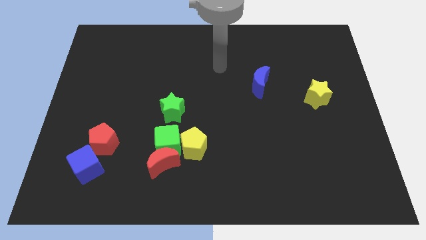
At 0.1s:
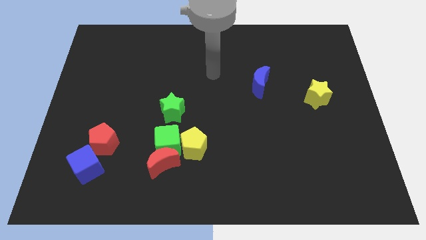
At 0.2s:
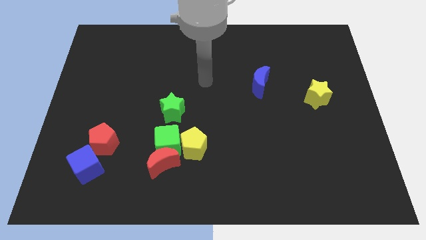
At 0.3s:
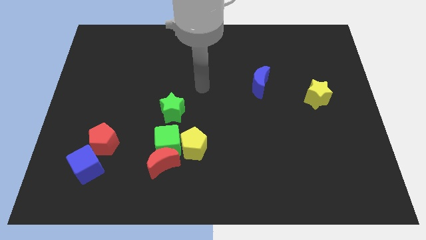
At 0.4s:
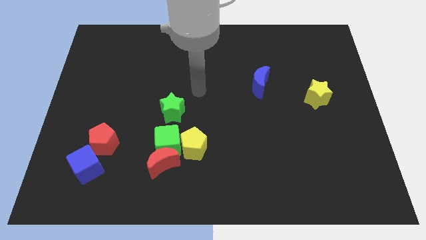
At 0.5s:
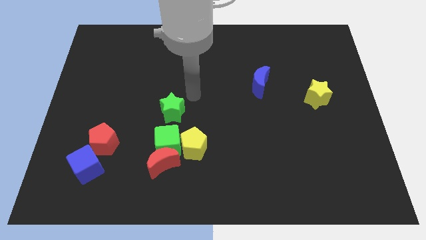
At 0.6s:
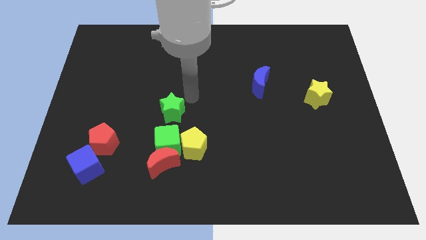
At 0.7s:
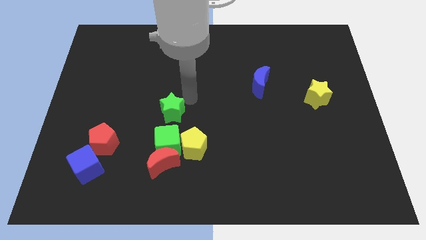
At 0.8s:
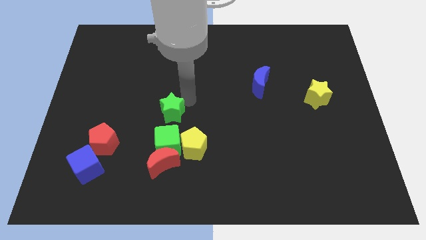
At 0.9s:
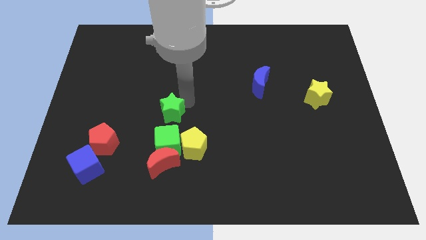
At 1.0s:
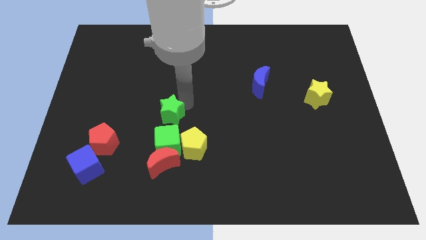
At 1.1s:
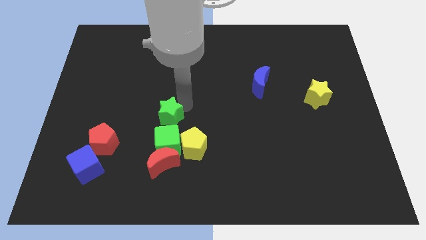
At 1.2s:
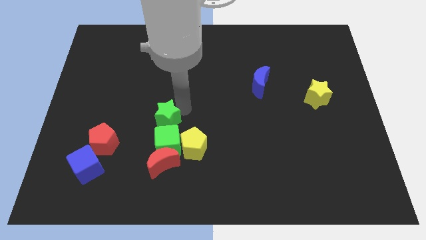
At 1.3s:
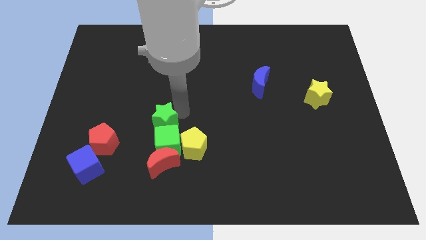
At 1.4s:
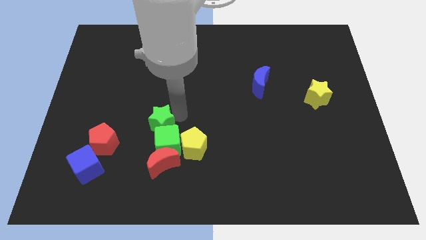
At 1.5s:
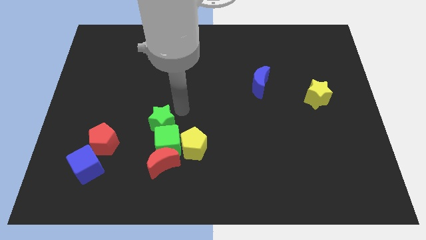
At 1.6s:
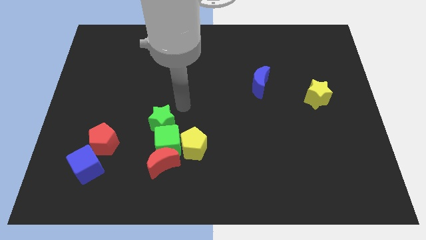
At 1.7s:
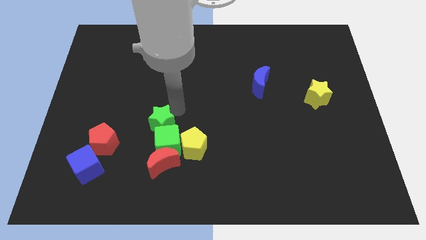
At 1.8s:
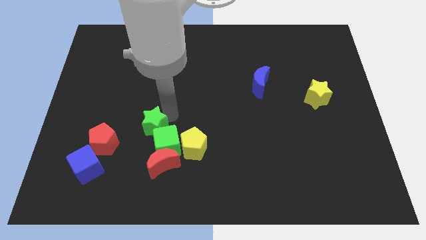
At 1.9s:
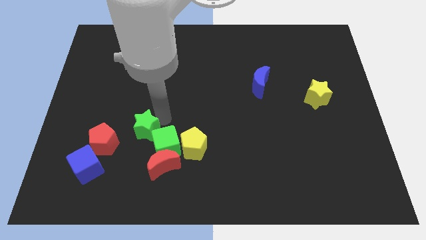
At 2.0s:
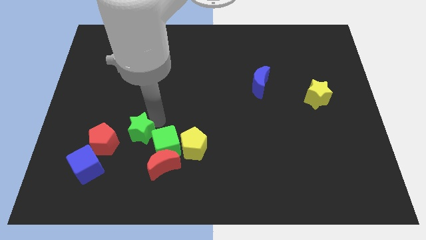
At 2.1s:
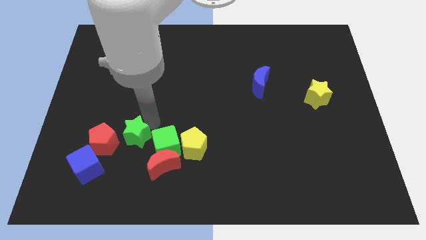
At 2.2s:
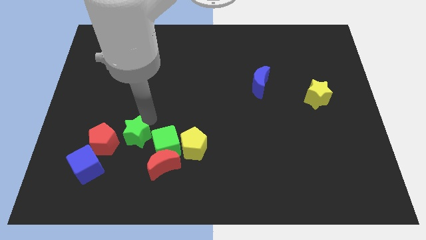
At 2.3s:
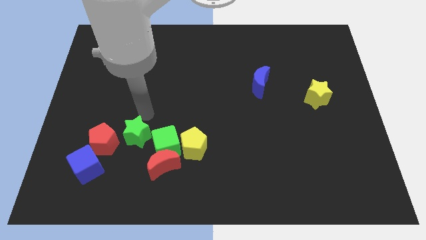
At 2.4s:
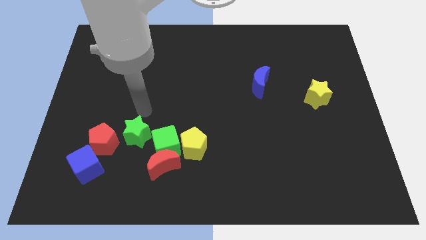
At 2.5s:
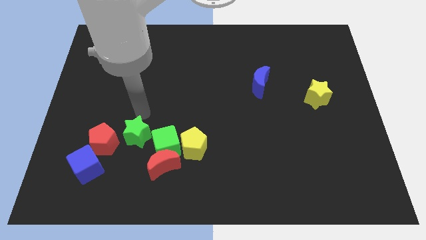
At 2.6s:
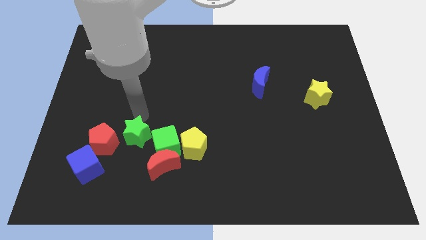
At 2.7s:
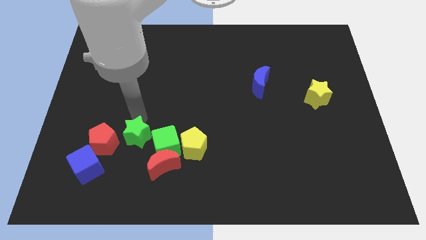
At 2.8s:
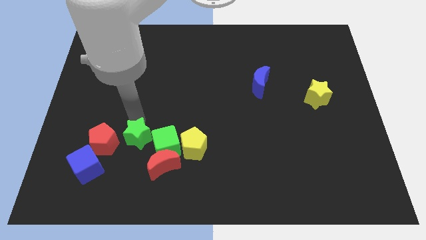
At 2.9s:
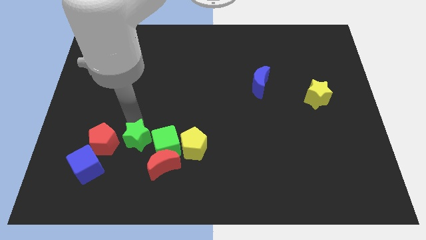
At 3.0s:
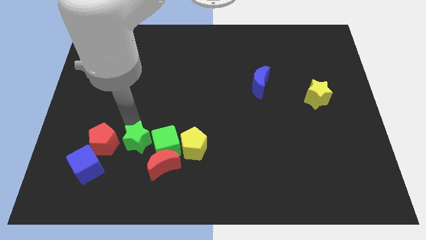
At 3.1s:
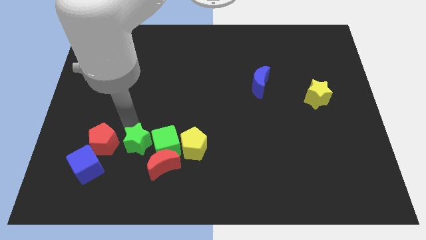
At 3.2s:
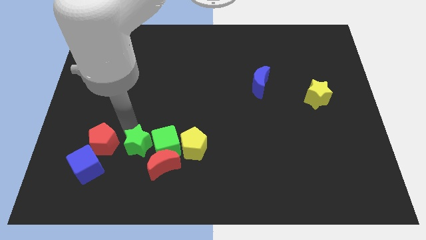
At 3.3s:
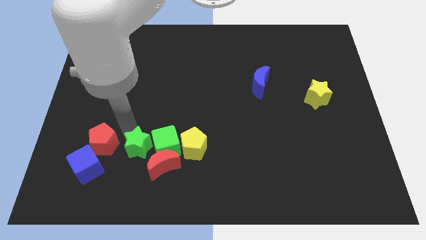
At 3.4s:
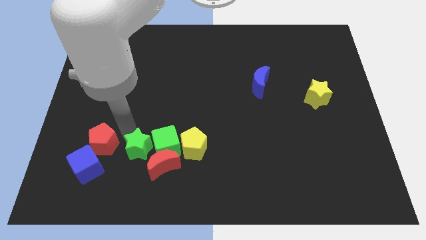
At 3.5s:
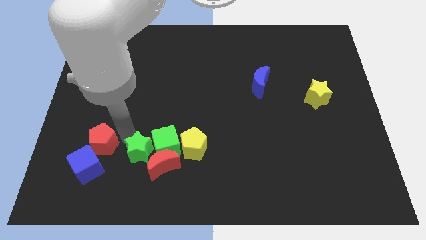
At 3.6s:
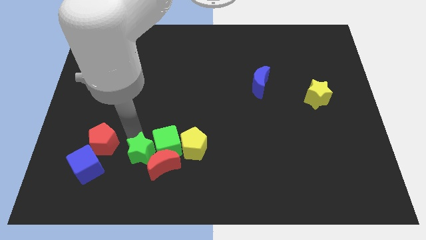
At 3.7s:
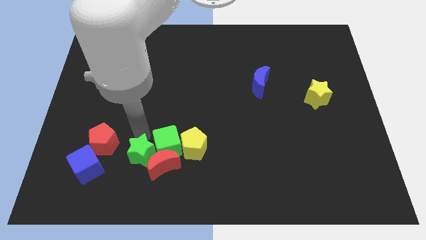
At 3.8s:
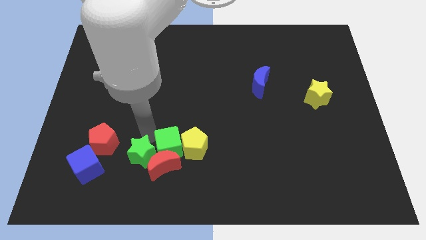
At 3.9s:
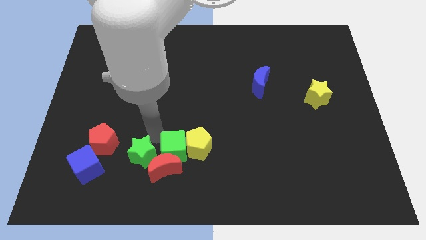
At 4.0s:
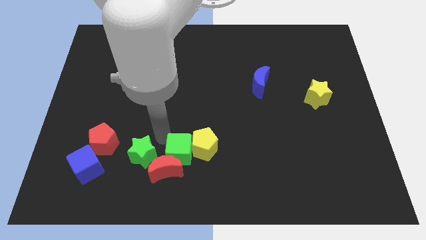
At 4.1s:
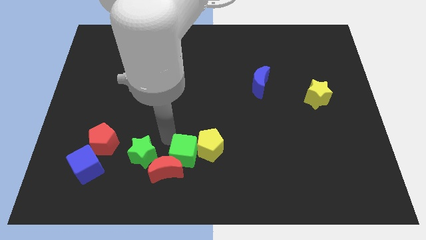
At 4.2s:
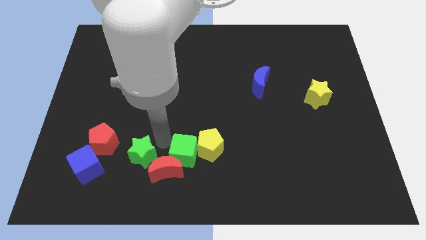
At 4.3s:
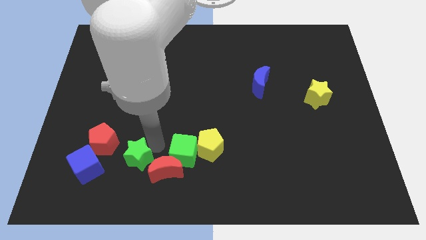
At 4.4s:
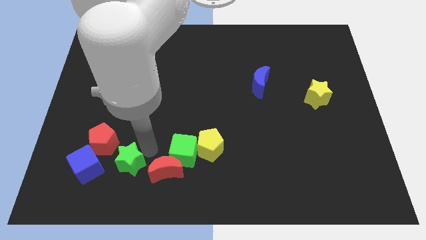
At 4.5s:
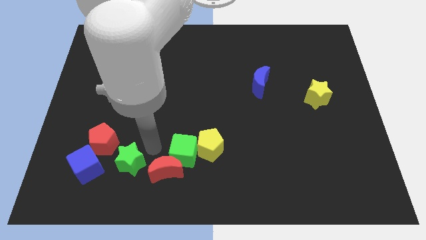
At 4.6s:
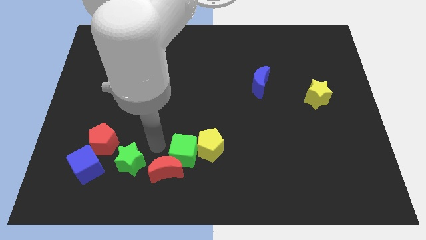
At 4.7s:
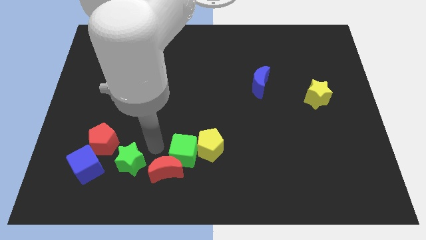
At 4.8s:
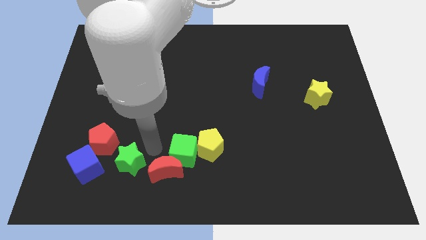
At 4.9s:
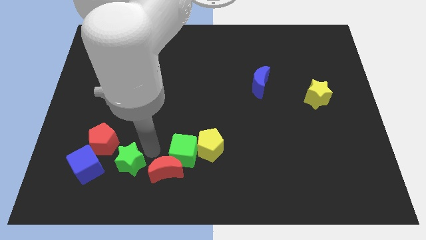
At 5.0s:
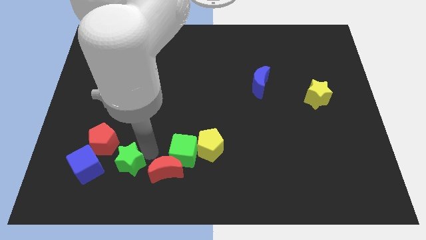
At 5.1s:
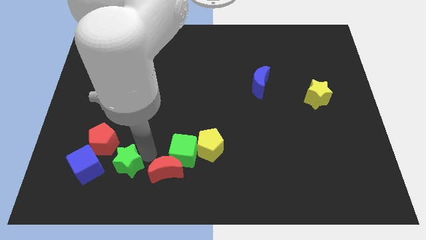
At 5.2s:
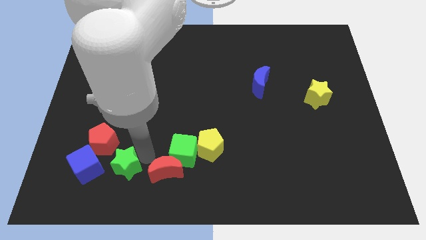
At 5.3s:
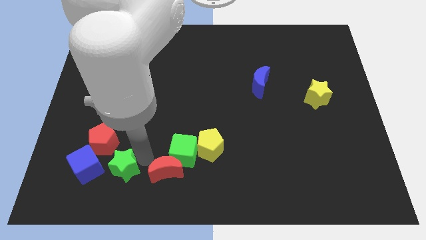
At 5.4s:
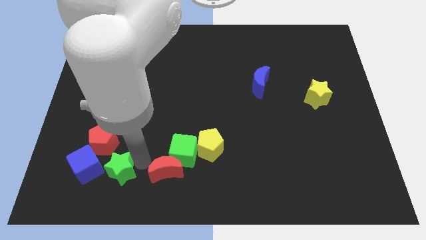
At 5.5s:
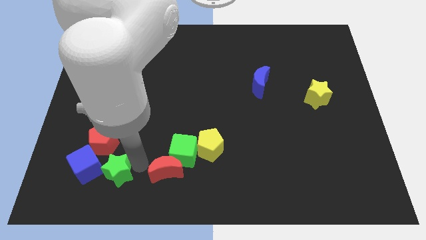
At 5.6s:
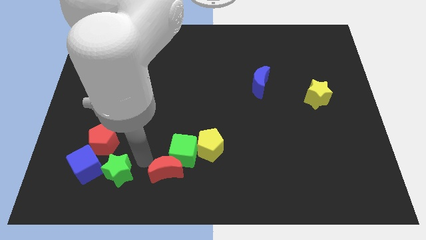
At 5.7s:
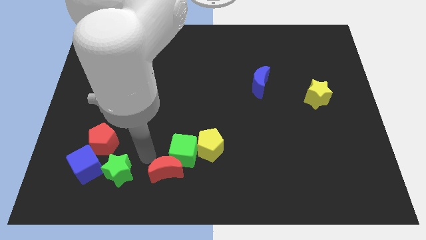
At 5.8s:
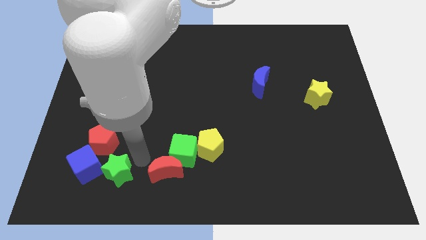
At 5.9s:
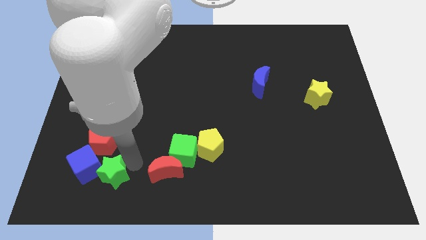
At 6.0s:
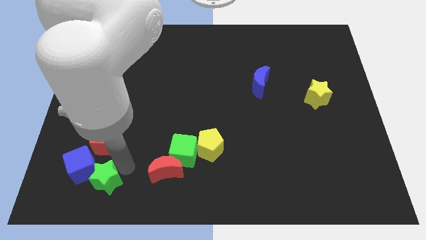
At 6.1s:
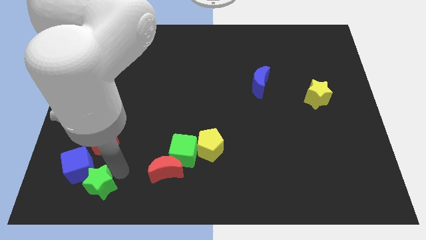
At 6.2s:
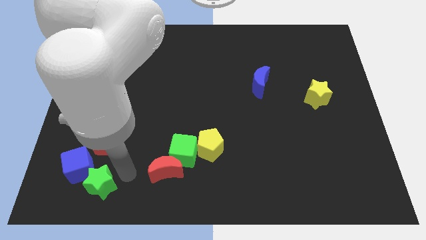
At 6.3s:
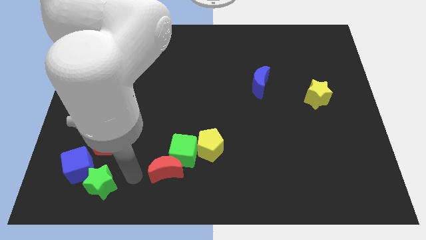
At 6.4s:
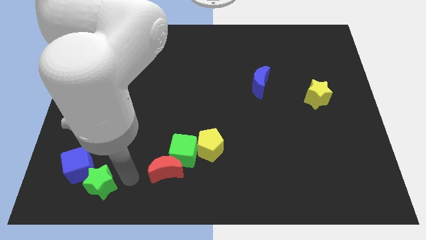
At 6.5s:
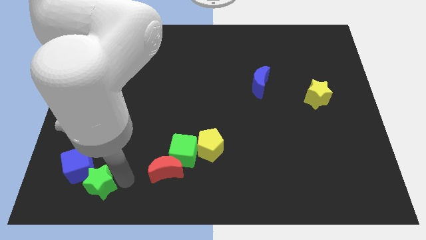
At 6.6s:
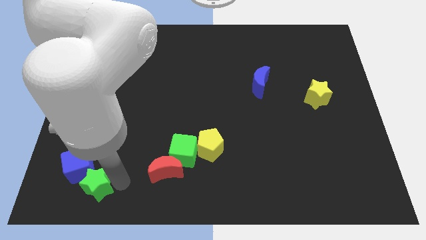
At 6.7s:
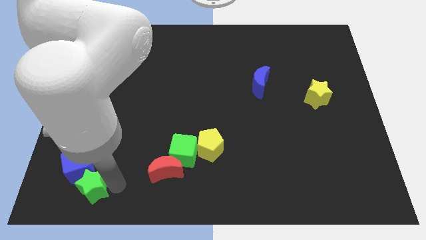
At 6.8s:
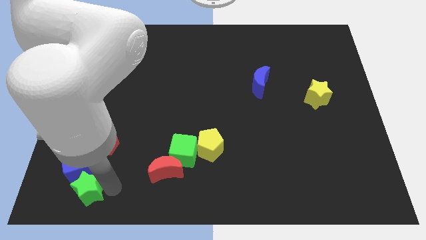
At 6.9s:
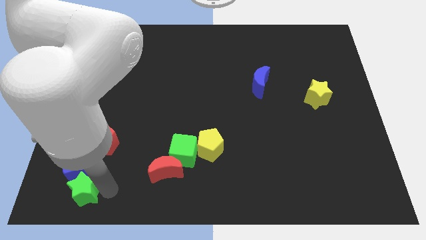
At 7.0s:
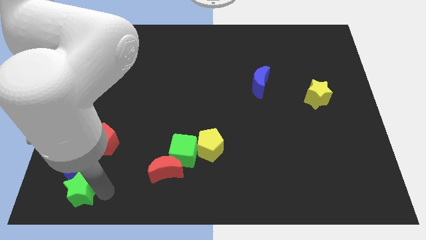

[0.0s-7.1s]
move the green star to the bottom left of the board

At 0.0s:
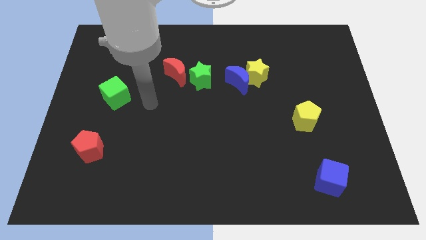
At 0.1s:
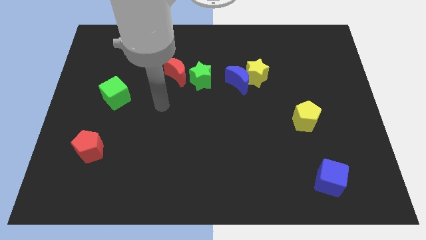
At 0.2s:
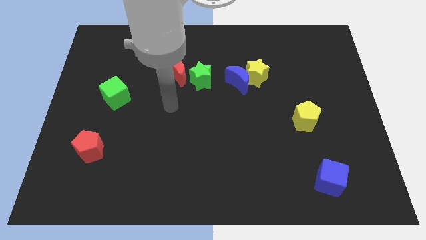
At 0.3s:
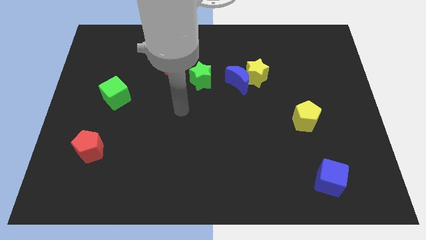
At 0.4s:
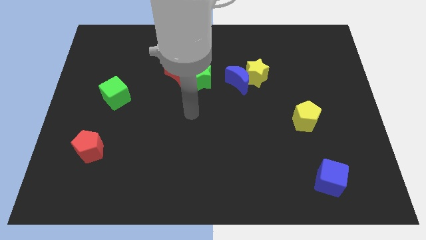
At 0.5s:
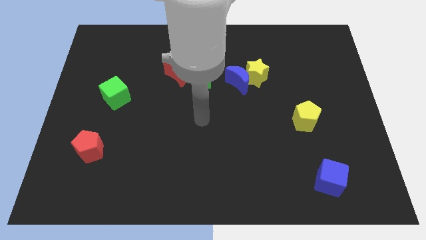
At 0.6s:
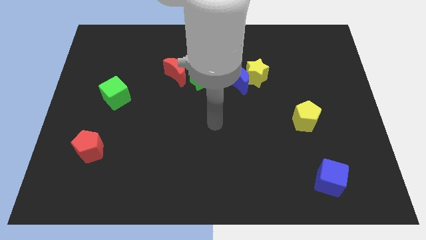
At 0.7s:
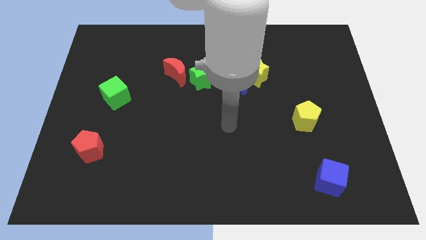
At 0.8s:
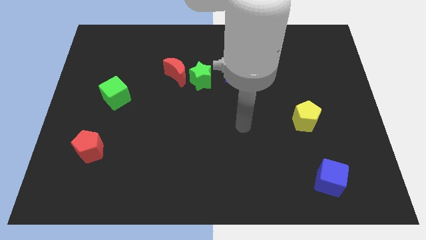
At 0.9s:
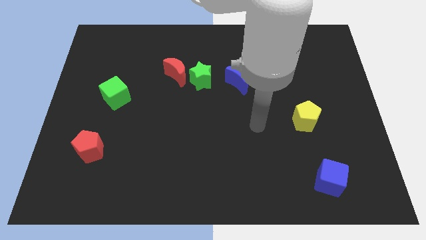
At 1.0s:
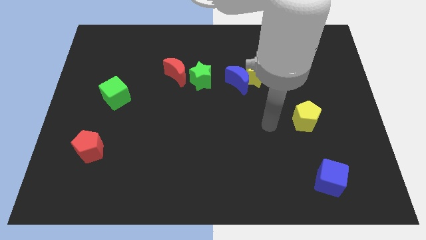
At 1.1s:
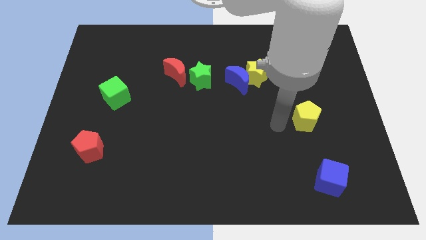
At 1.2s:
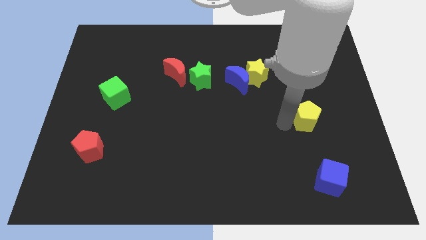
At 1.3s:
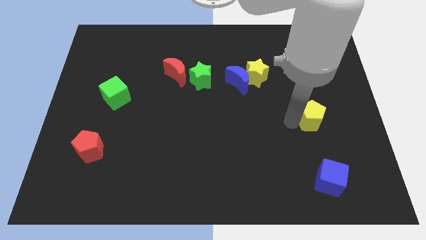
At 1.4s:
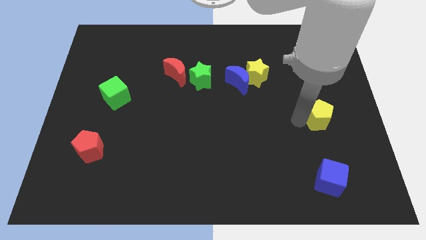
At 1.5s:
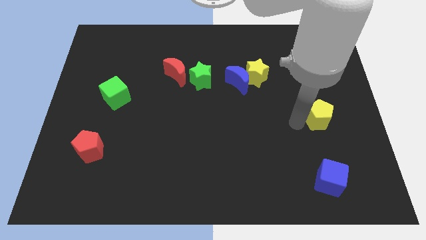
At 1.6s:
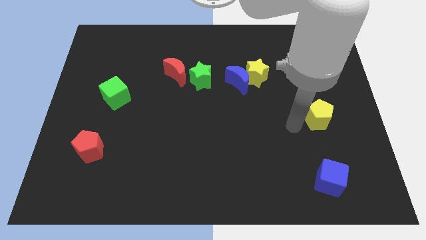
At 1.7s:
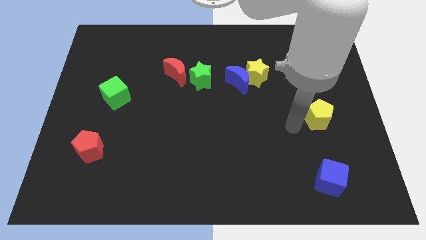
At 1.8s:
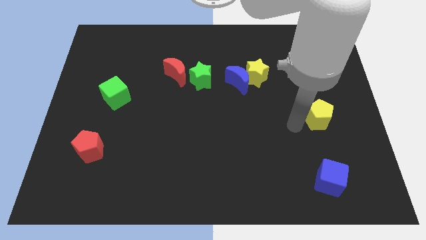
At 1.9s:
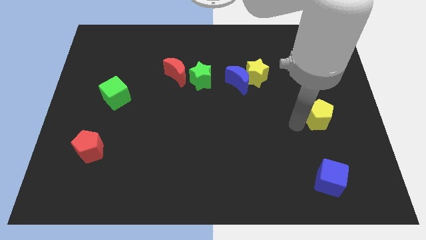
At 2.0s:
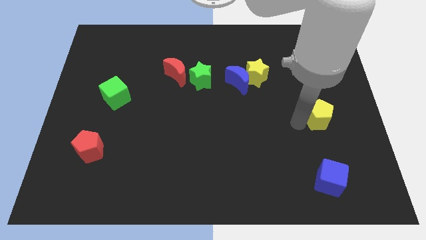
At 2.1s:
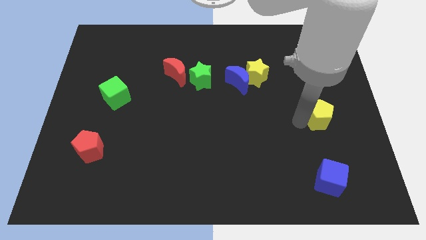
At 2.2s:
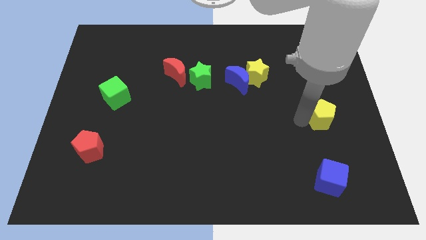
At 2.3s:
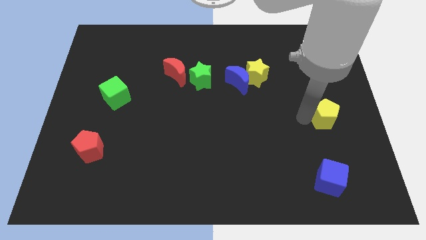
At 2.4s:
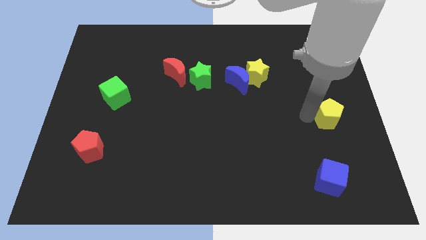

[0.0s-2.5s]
slide the yellow pentagon to the right side of the board
